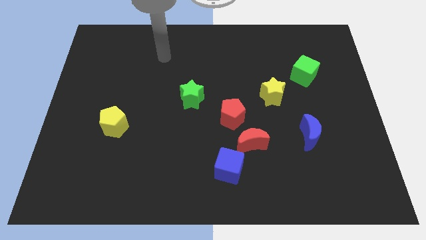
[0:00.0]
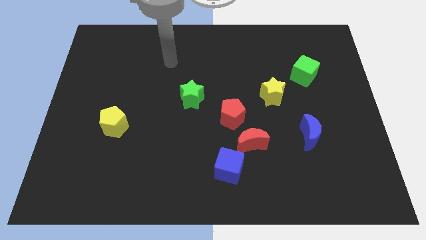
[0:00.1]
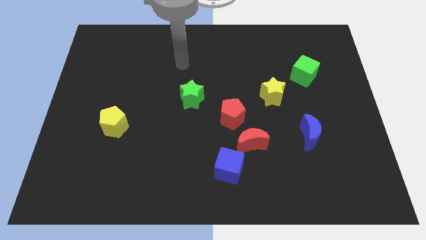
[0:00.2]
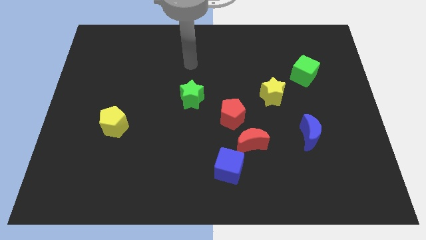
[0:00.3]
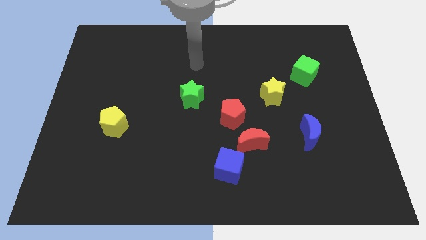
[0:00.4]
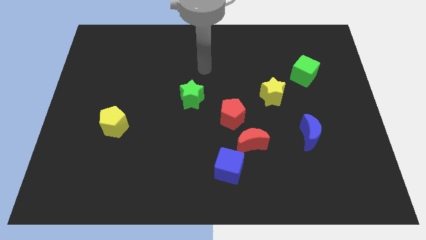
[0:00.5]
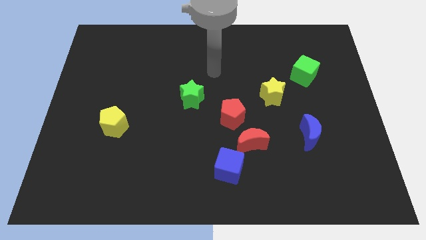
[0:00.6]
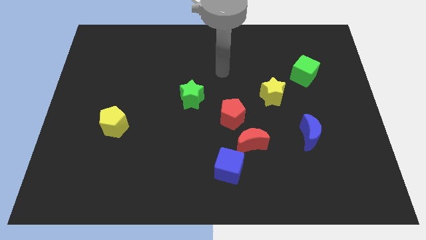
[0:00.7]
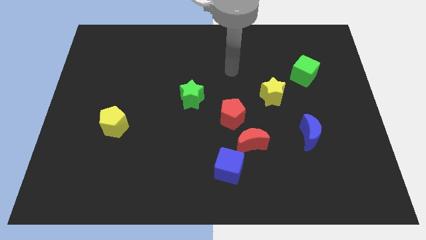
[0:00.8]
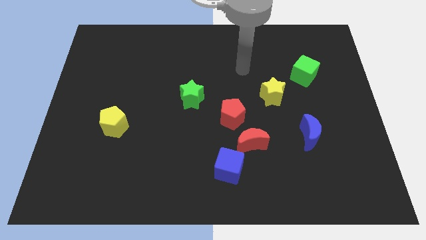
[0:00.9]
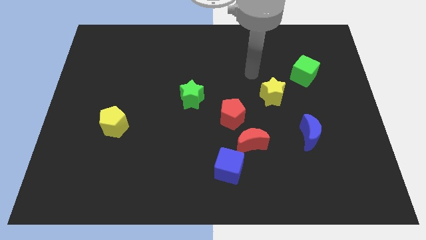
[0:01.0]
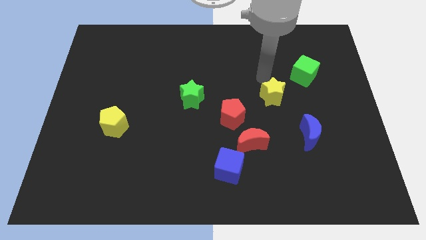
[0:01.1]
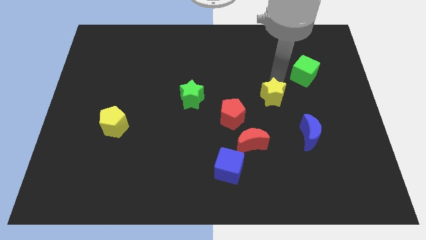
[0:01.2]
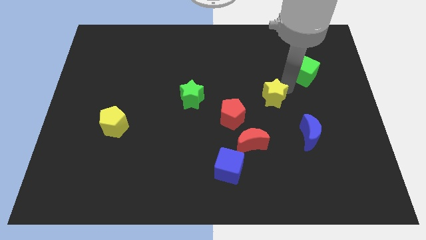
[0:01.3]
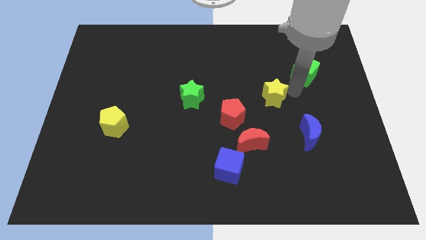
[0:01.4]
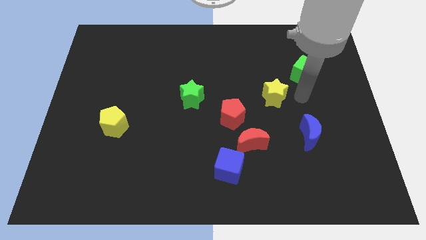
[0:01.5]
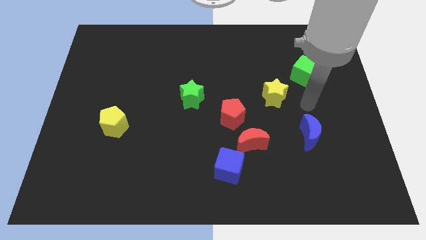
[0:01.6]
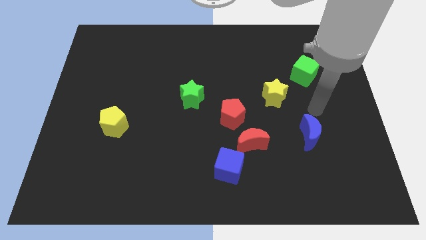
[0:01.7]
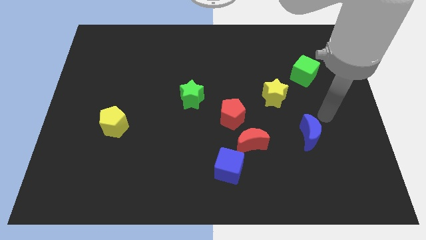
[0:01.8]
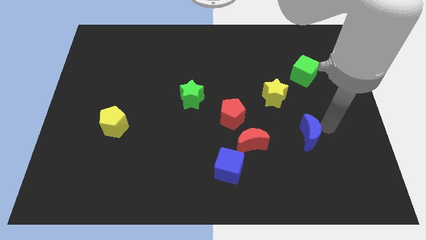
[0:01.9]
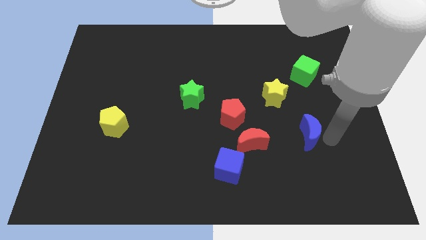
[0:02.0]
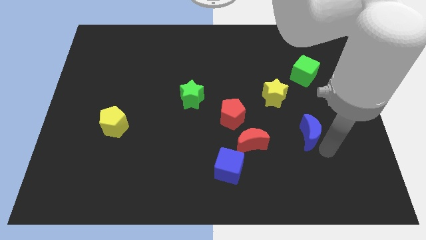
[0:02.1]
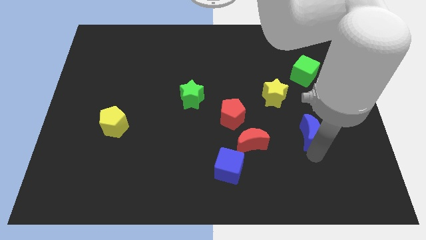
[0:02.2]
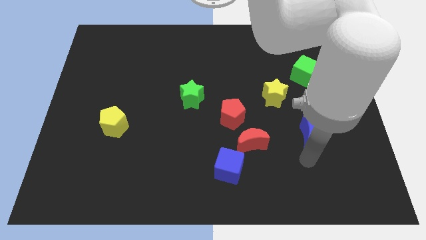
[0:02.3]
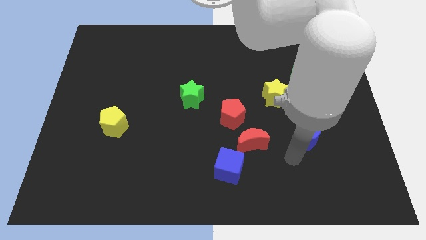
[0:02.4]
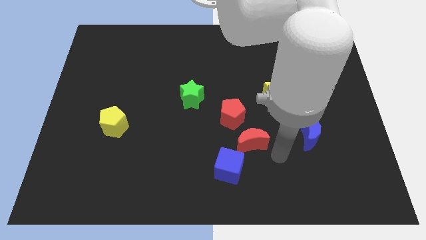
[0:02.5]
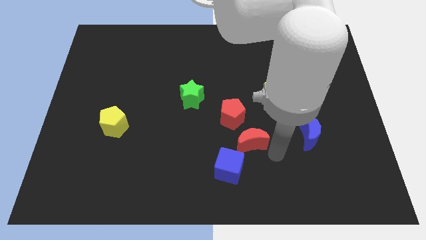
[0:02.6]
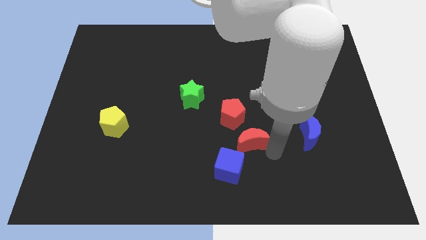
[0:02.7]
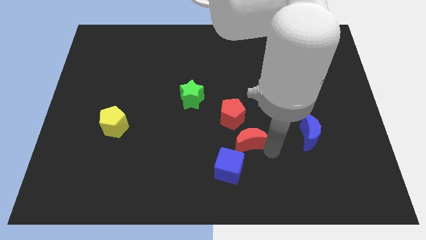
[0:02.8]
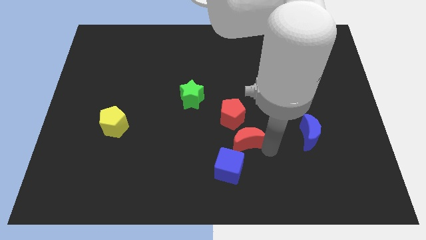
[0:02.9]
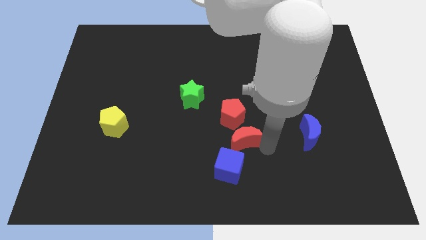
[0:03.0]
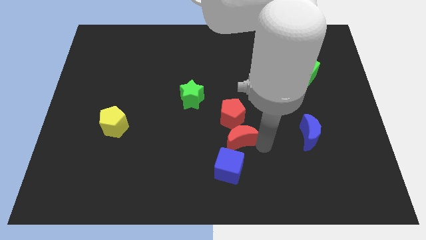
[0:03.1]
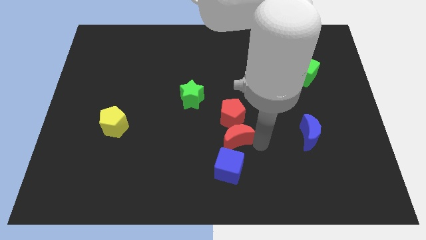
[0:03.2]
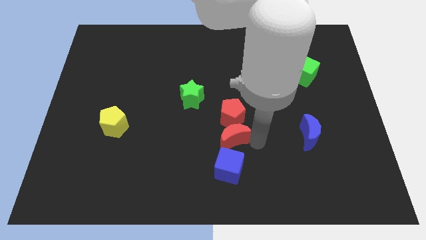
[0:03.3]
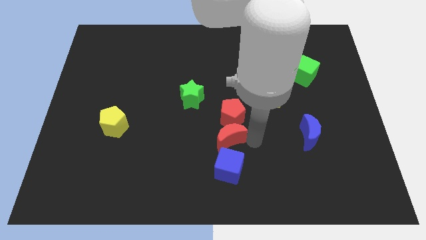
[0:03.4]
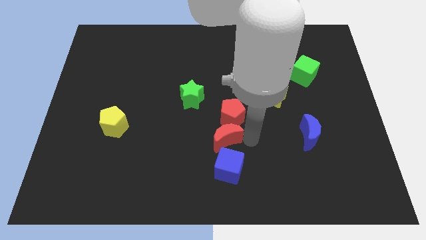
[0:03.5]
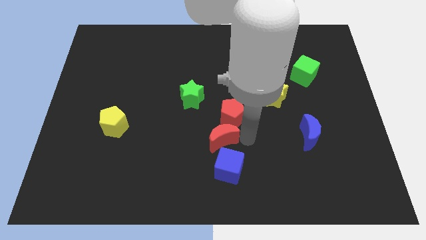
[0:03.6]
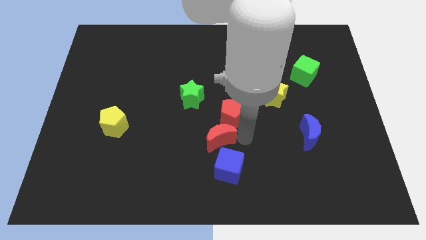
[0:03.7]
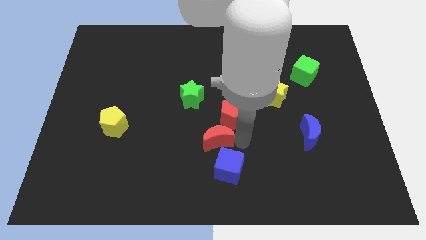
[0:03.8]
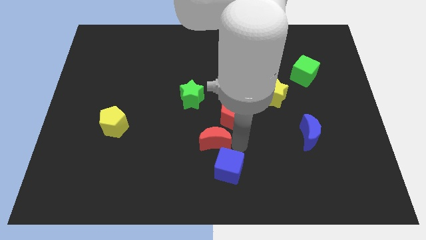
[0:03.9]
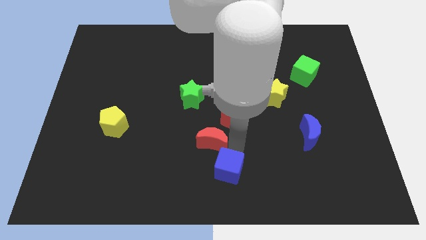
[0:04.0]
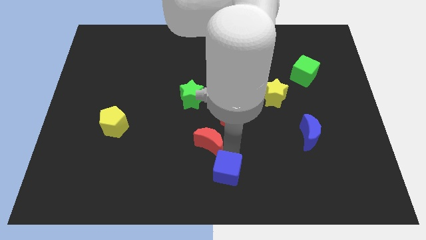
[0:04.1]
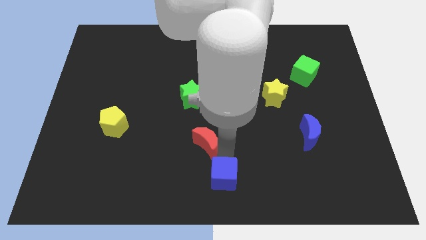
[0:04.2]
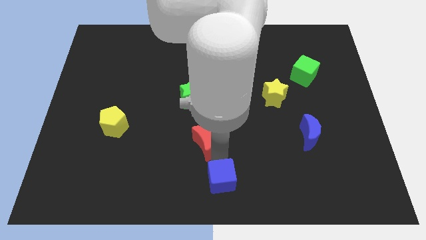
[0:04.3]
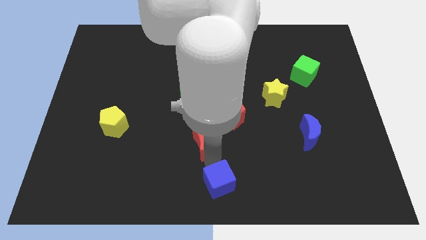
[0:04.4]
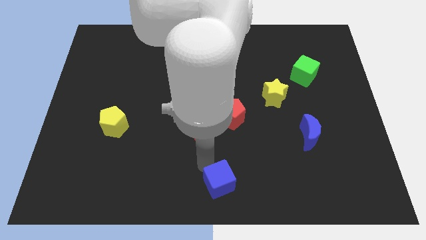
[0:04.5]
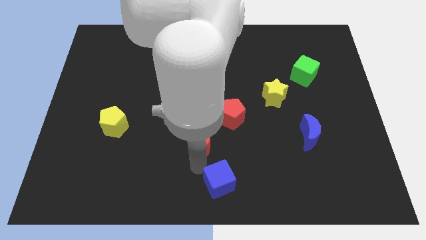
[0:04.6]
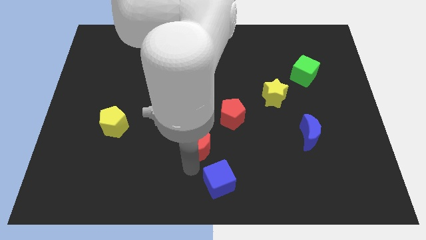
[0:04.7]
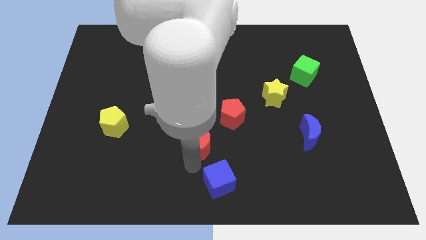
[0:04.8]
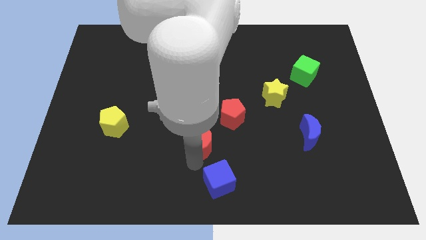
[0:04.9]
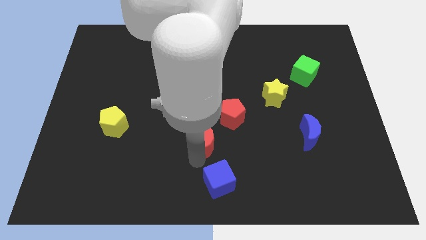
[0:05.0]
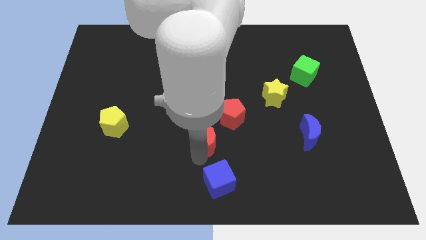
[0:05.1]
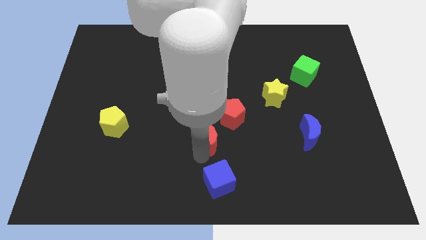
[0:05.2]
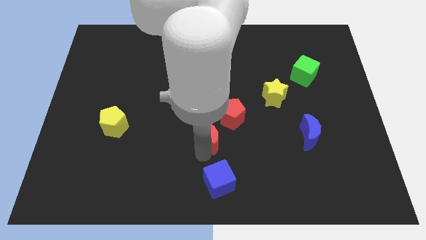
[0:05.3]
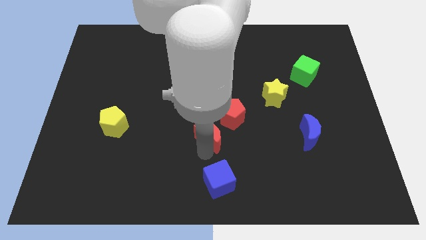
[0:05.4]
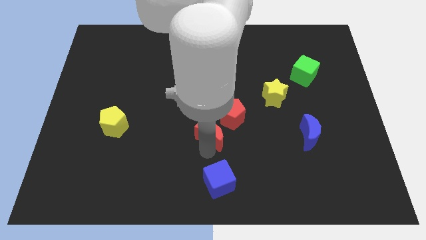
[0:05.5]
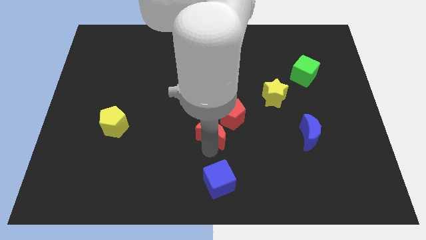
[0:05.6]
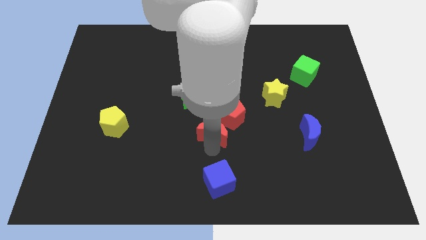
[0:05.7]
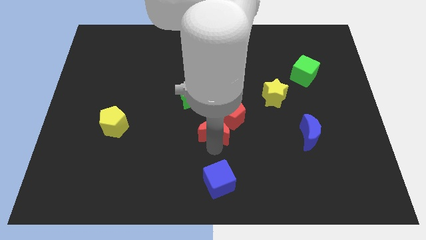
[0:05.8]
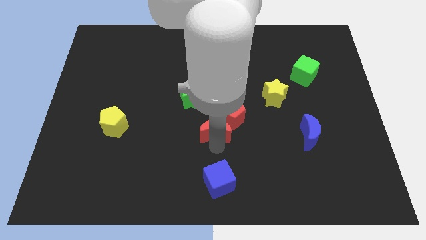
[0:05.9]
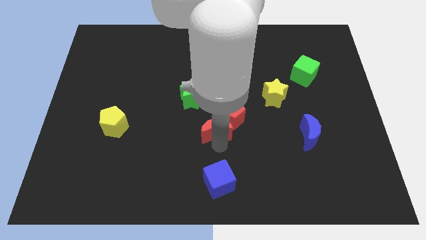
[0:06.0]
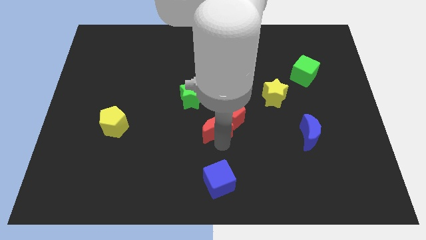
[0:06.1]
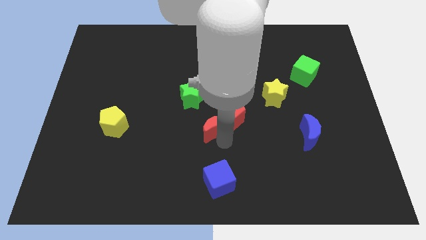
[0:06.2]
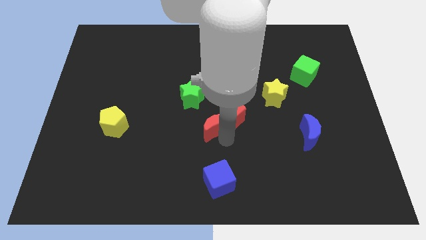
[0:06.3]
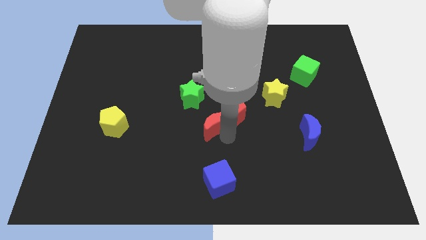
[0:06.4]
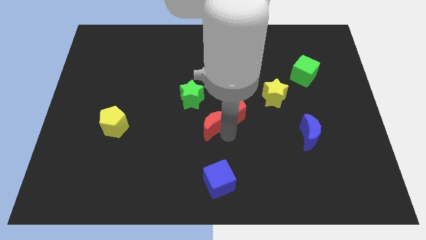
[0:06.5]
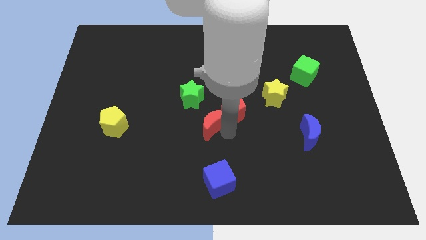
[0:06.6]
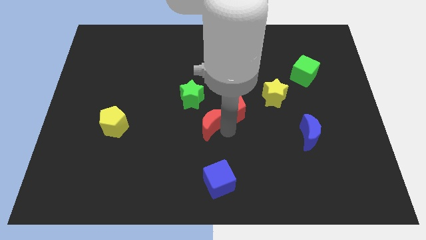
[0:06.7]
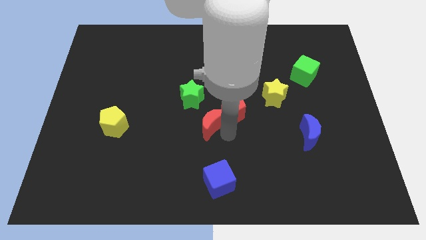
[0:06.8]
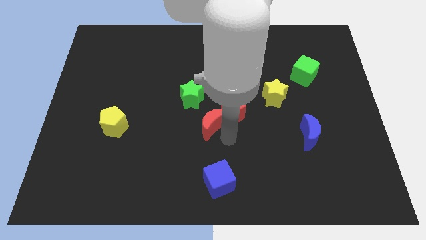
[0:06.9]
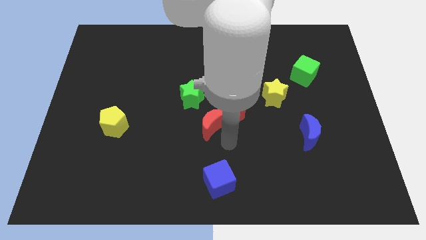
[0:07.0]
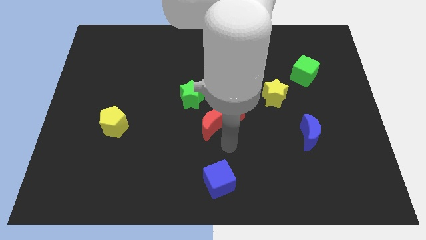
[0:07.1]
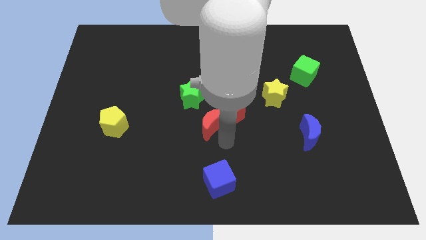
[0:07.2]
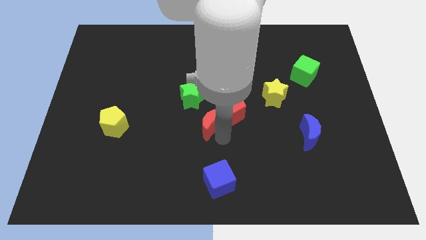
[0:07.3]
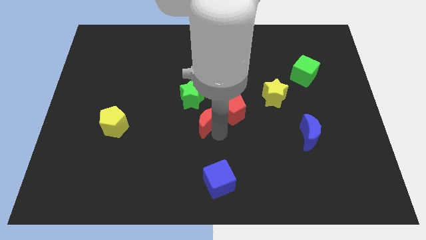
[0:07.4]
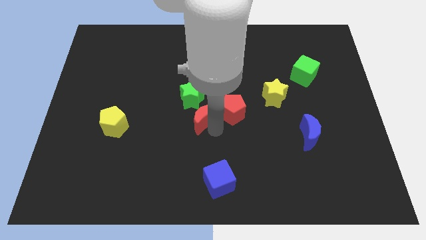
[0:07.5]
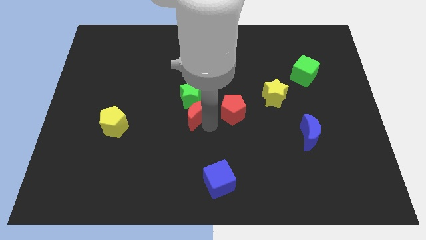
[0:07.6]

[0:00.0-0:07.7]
push the red moon next to the green star
